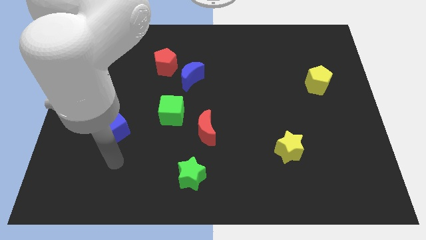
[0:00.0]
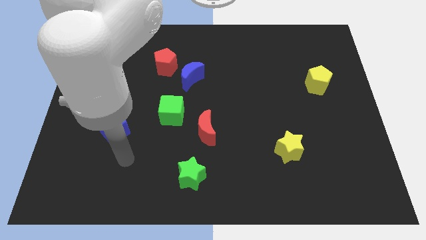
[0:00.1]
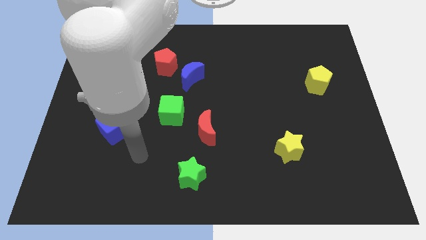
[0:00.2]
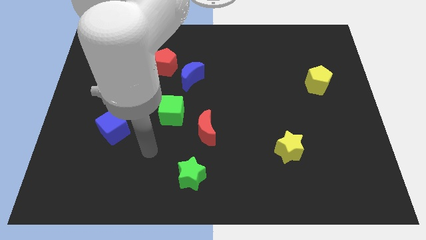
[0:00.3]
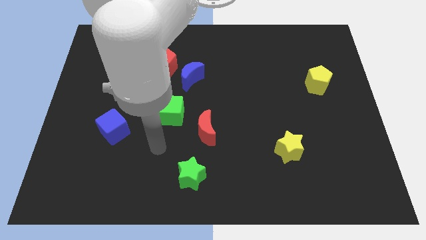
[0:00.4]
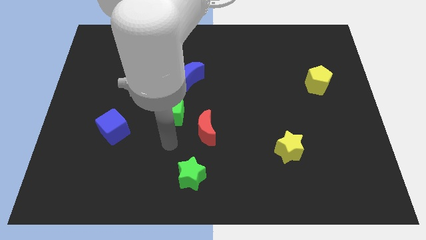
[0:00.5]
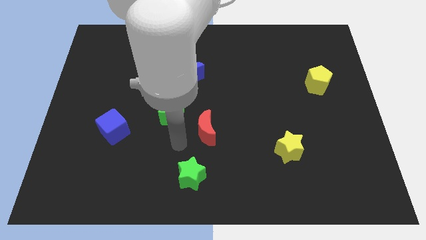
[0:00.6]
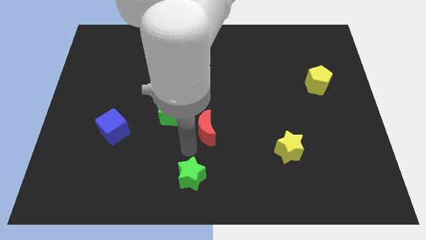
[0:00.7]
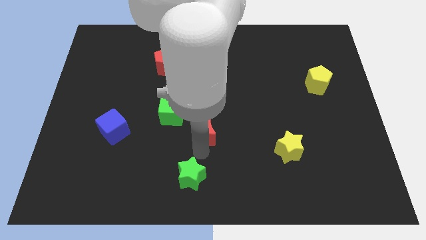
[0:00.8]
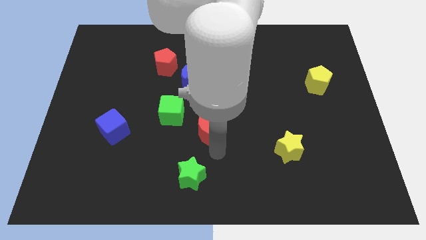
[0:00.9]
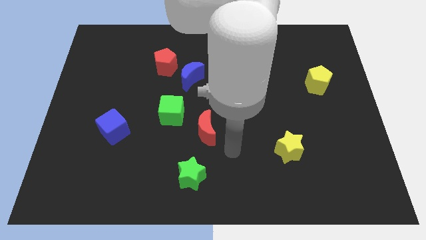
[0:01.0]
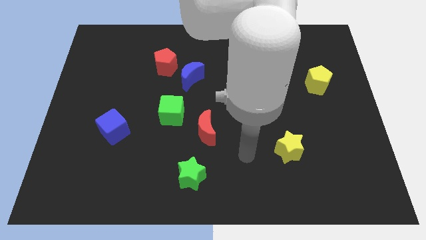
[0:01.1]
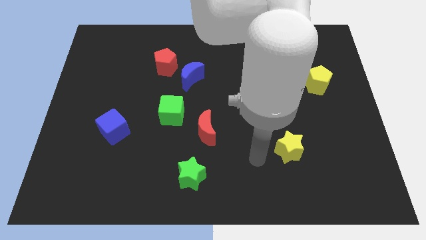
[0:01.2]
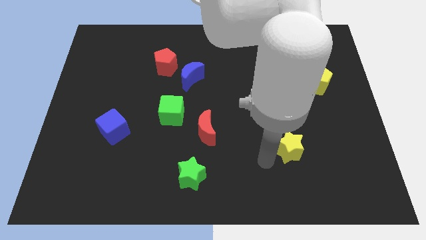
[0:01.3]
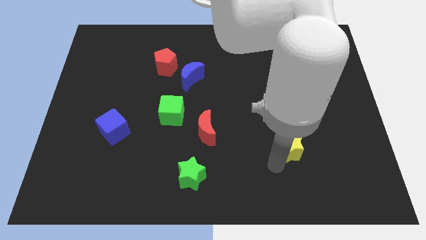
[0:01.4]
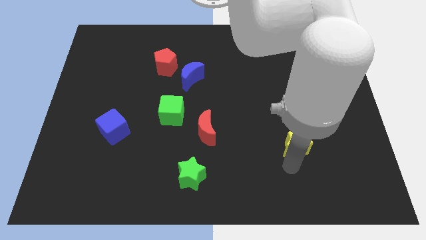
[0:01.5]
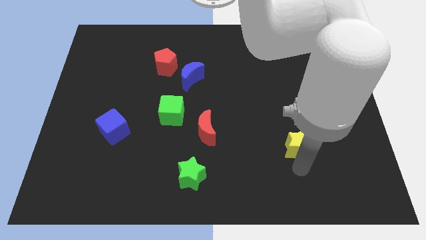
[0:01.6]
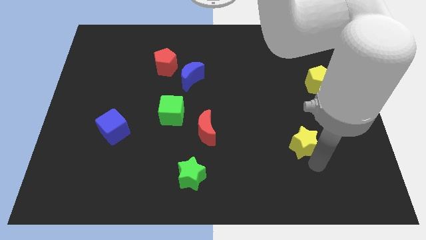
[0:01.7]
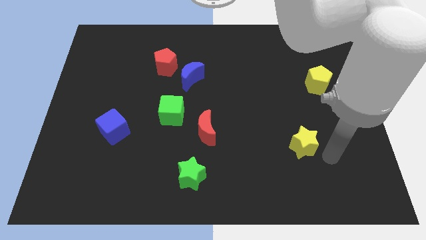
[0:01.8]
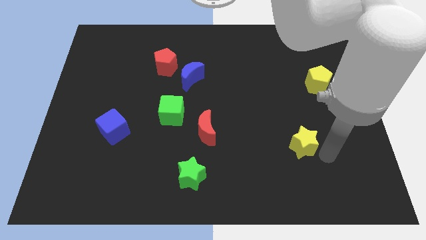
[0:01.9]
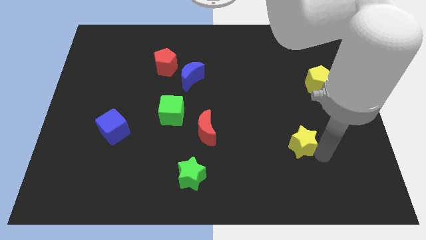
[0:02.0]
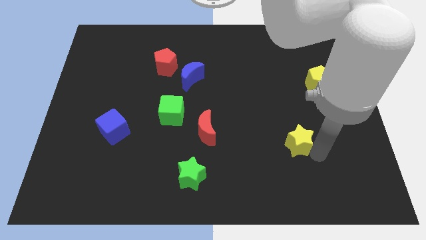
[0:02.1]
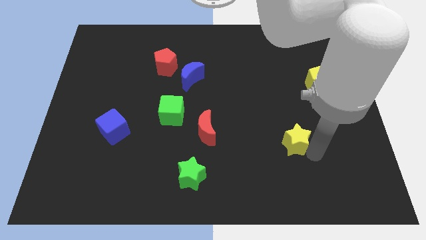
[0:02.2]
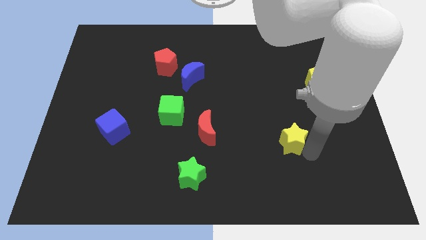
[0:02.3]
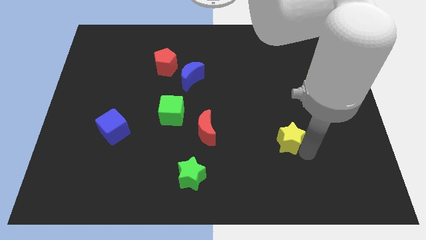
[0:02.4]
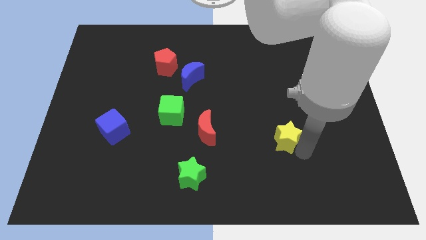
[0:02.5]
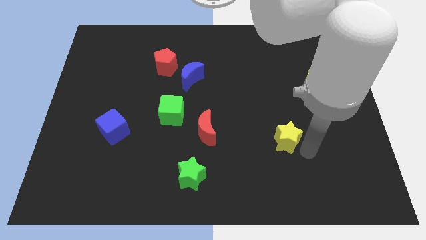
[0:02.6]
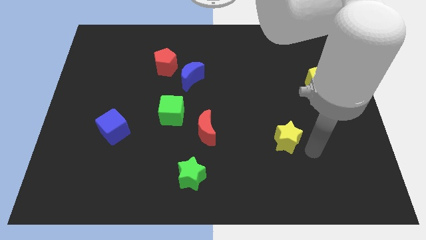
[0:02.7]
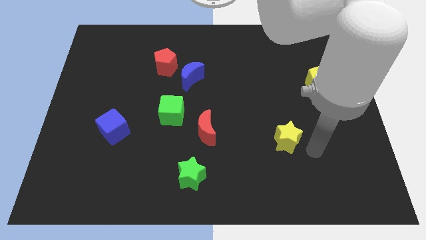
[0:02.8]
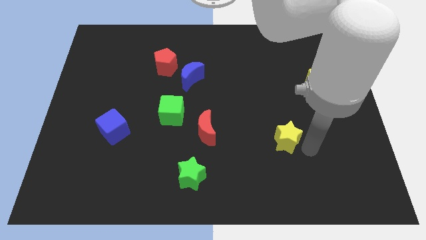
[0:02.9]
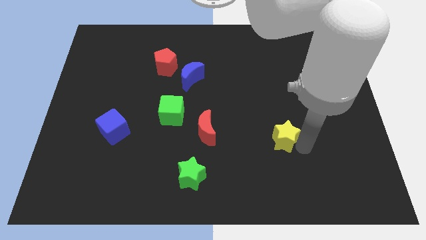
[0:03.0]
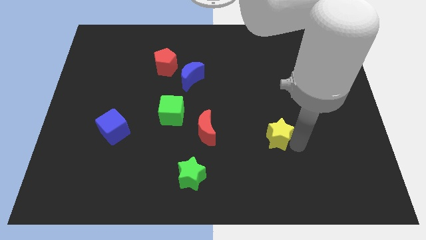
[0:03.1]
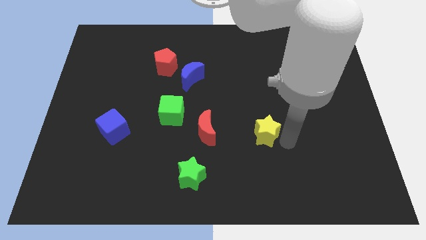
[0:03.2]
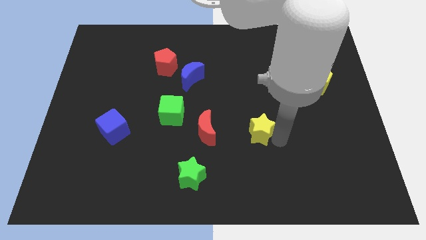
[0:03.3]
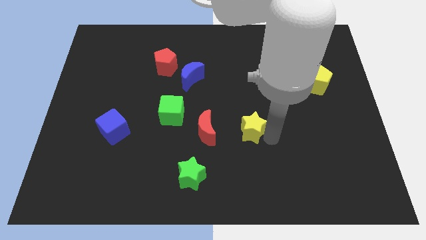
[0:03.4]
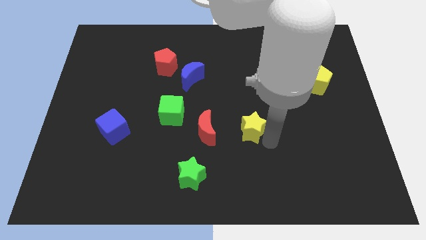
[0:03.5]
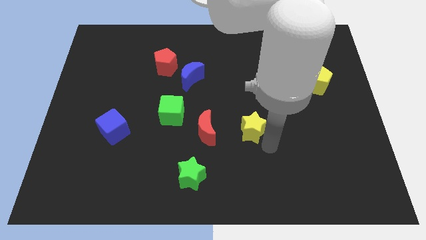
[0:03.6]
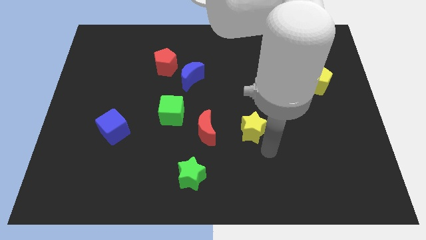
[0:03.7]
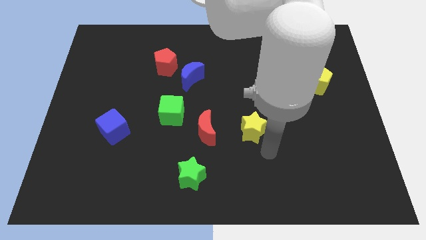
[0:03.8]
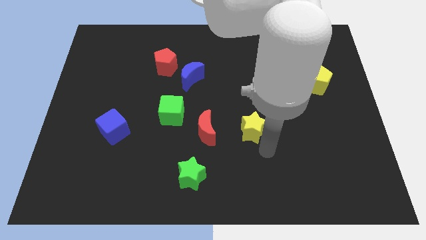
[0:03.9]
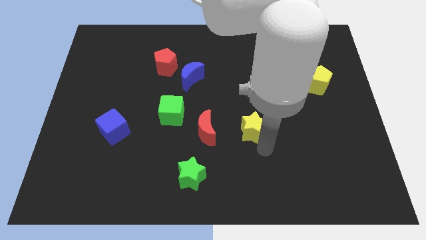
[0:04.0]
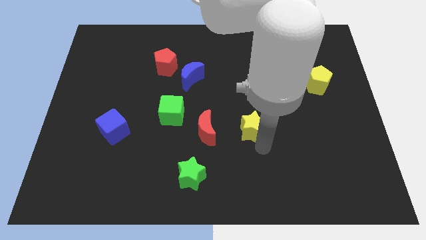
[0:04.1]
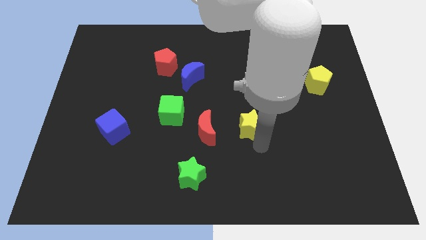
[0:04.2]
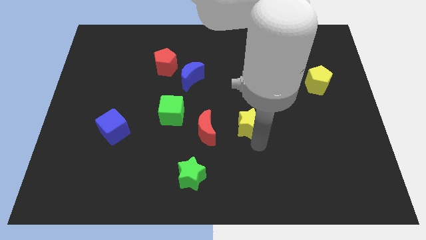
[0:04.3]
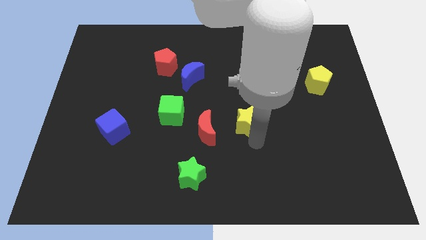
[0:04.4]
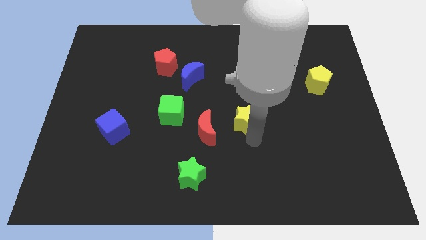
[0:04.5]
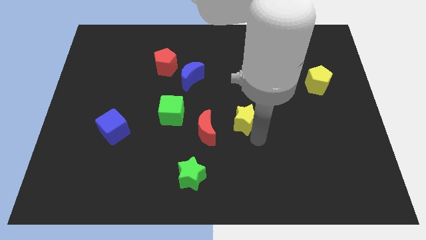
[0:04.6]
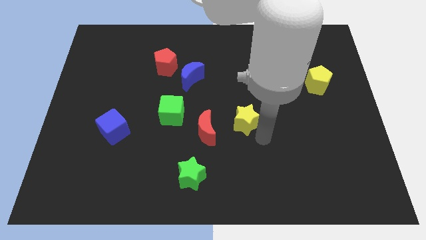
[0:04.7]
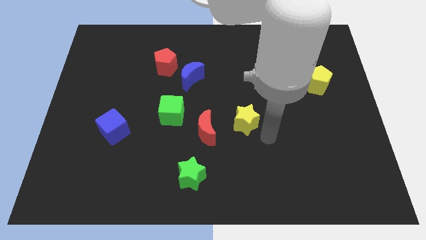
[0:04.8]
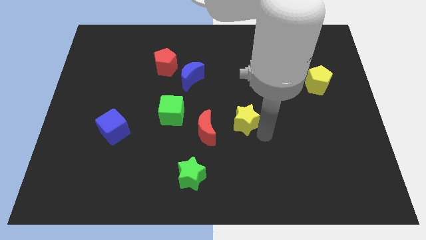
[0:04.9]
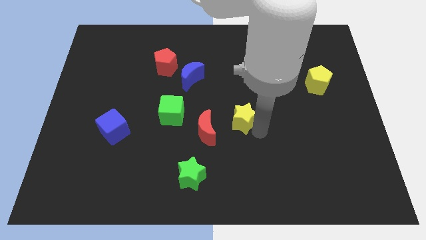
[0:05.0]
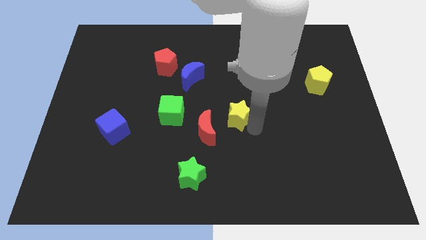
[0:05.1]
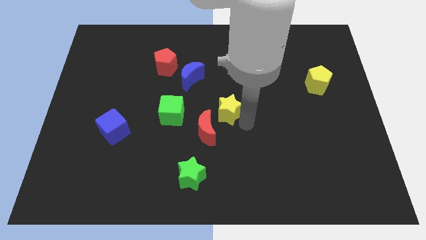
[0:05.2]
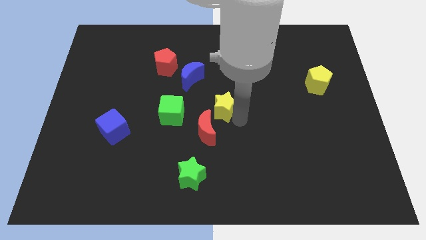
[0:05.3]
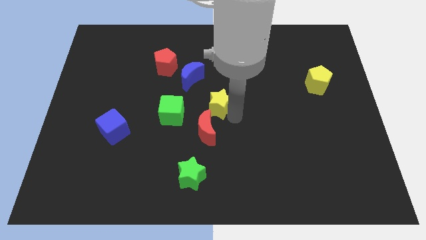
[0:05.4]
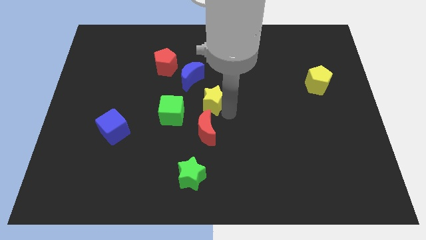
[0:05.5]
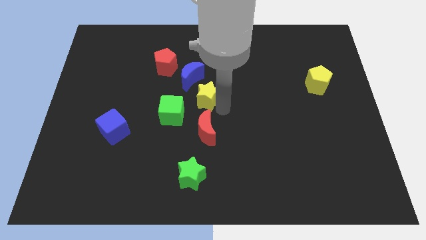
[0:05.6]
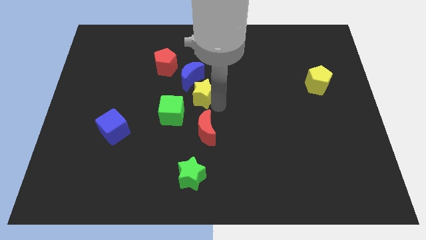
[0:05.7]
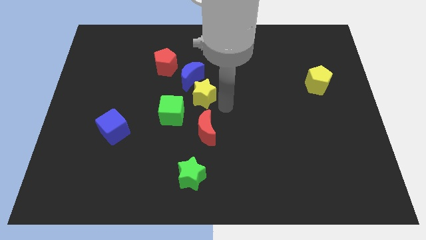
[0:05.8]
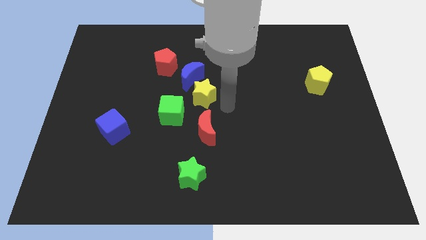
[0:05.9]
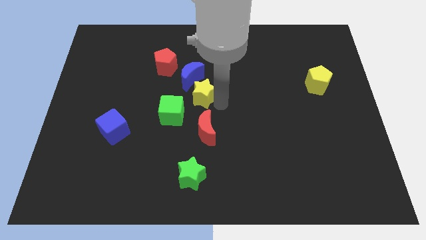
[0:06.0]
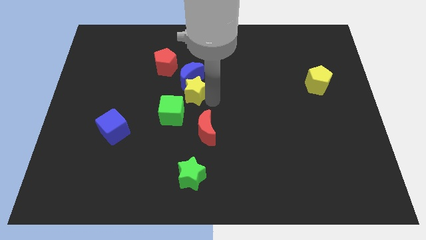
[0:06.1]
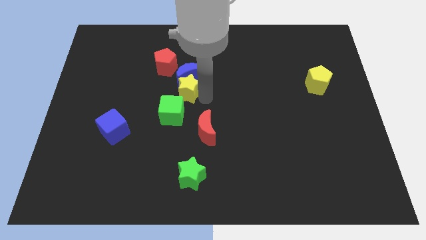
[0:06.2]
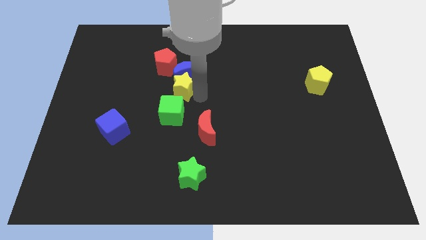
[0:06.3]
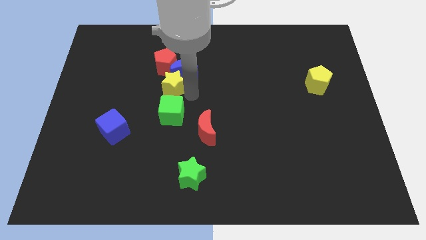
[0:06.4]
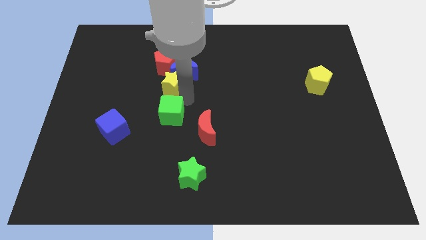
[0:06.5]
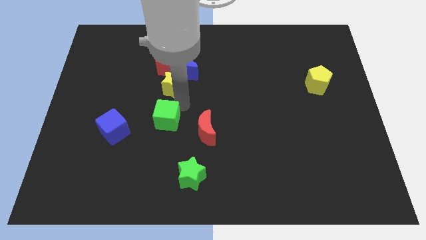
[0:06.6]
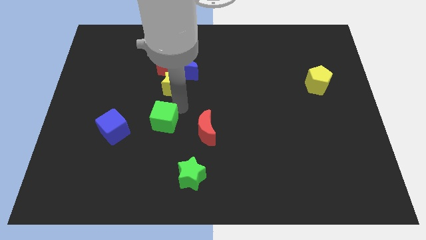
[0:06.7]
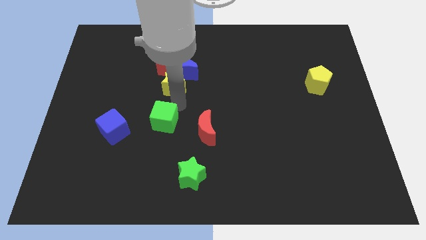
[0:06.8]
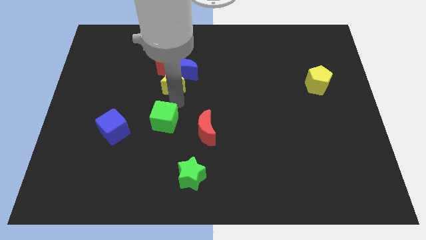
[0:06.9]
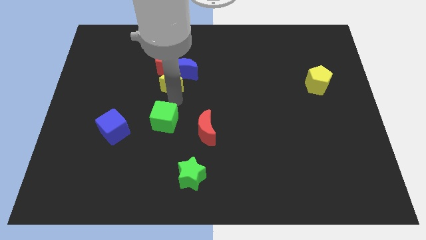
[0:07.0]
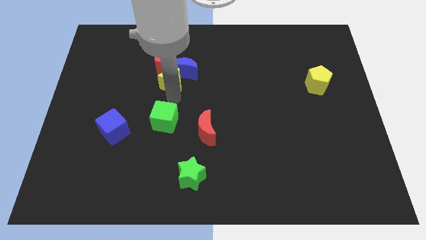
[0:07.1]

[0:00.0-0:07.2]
slide the yellow star towards the red pentagon

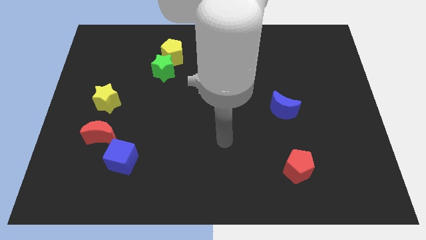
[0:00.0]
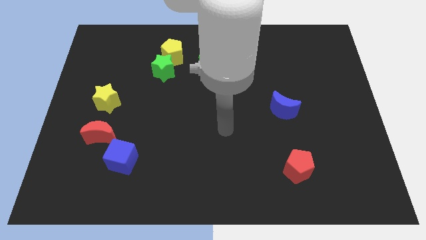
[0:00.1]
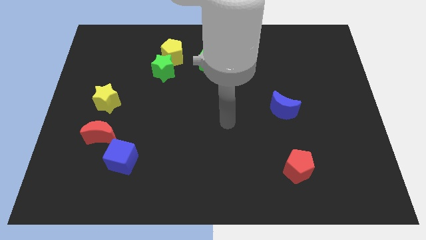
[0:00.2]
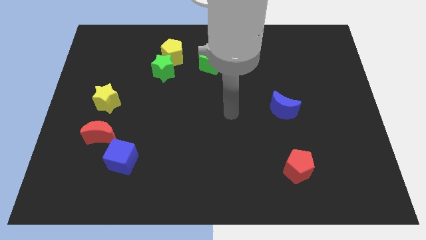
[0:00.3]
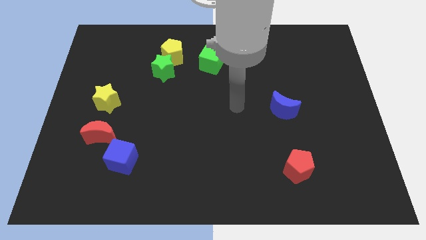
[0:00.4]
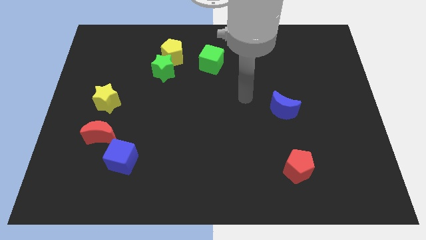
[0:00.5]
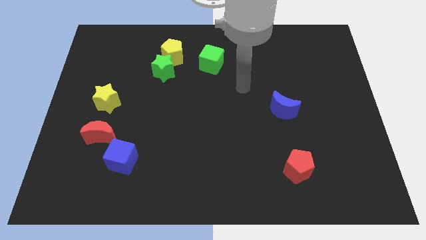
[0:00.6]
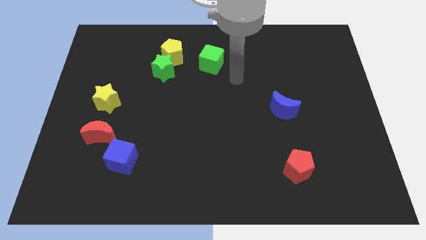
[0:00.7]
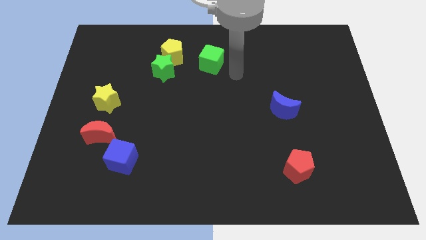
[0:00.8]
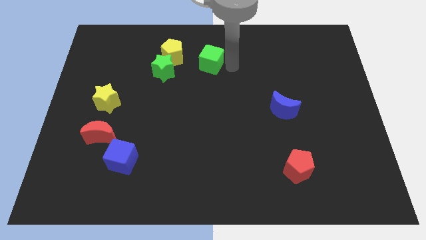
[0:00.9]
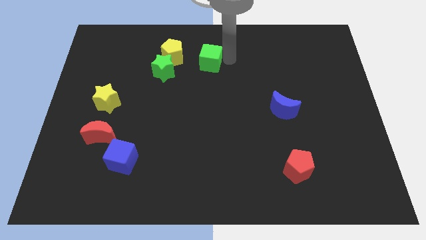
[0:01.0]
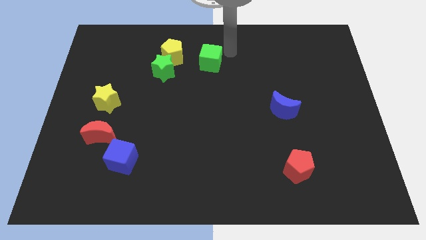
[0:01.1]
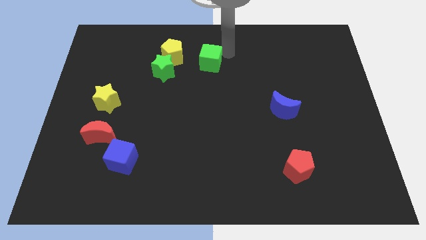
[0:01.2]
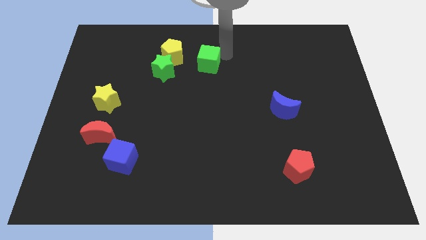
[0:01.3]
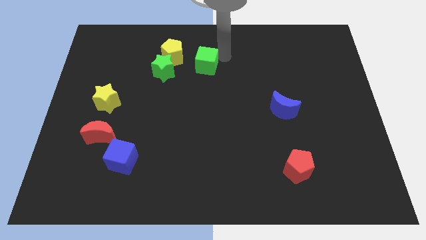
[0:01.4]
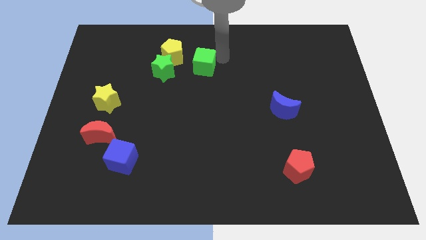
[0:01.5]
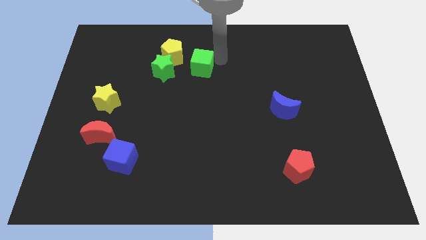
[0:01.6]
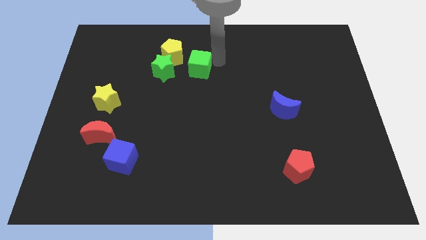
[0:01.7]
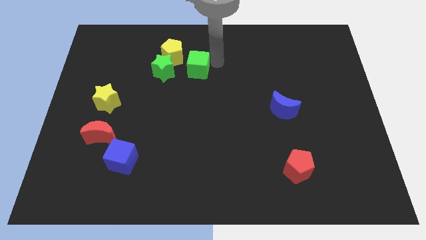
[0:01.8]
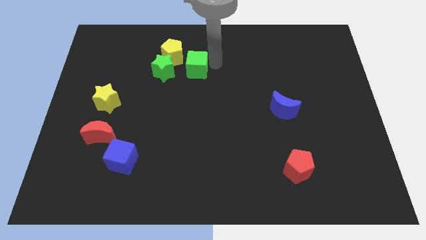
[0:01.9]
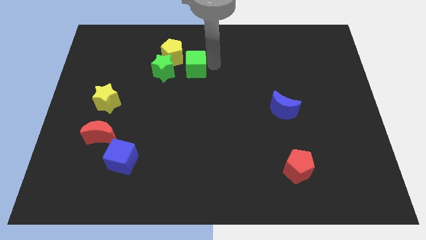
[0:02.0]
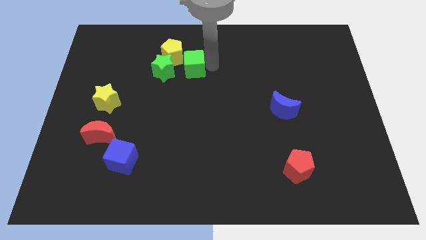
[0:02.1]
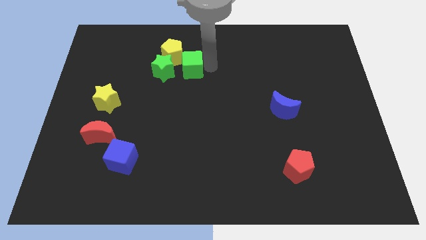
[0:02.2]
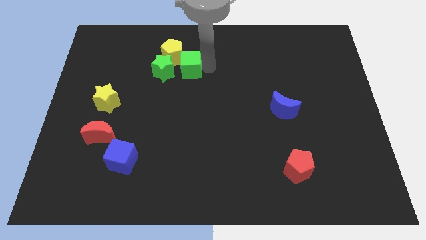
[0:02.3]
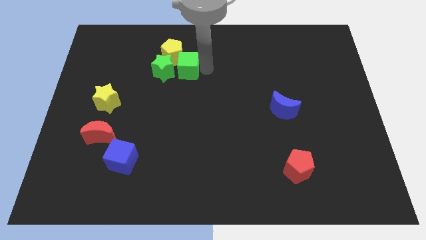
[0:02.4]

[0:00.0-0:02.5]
move the green cube close to the green star
